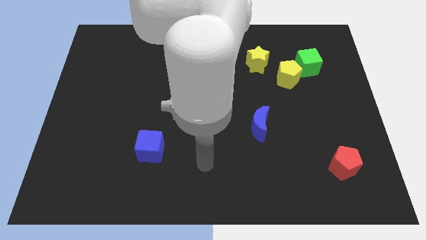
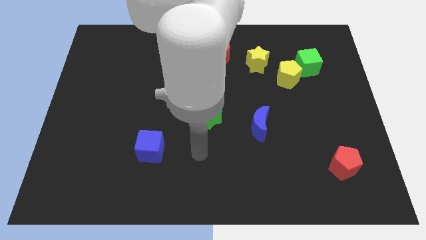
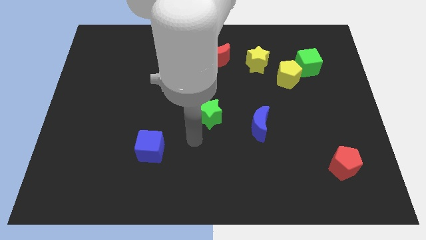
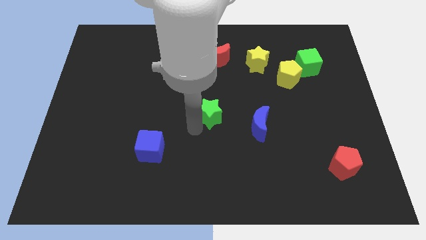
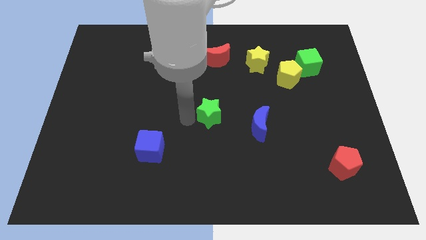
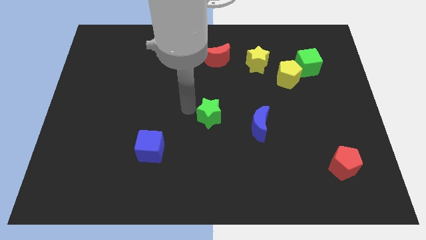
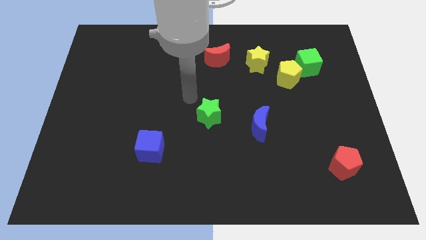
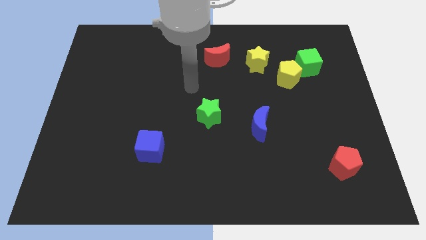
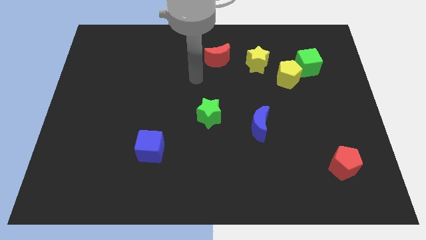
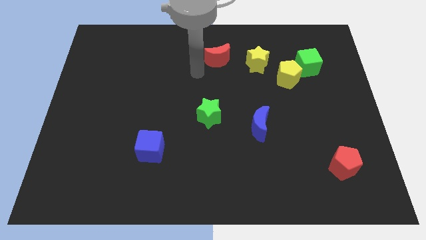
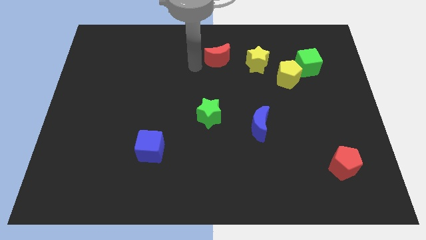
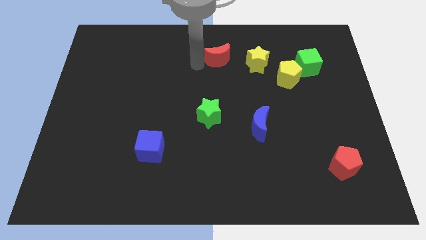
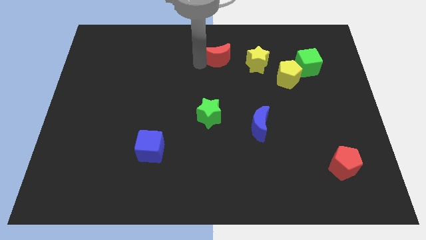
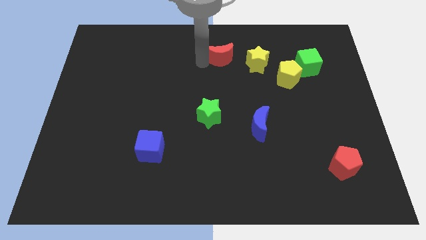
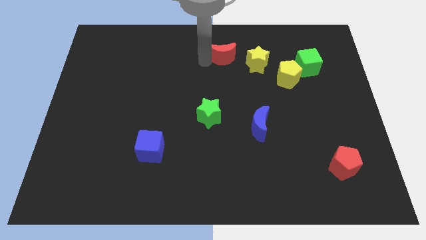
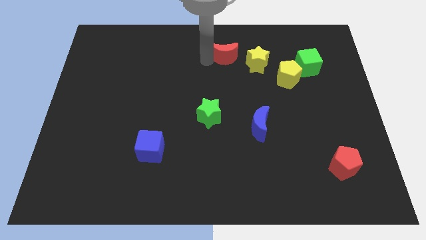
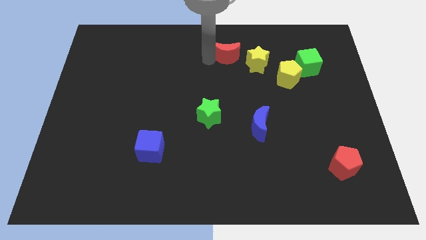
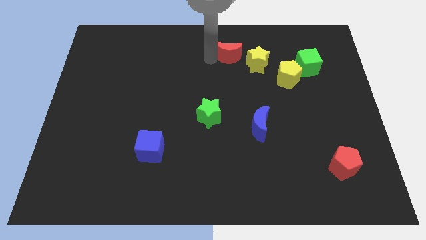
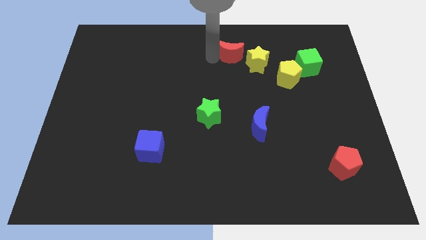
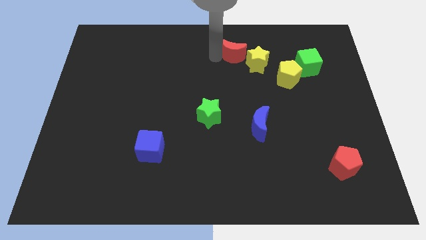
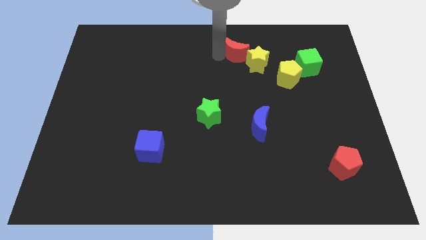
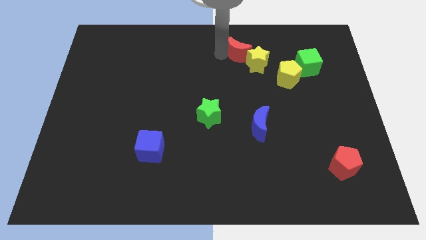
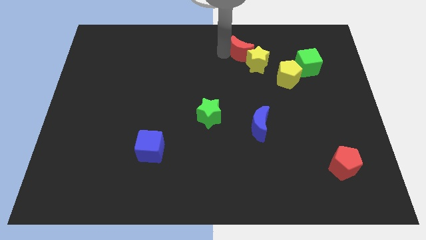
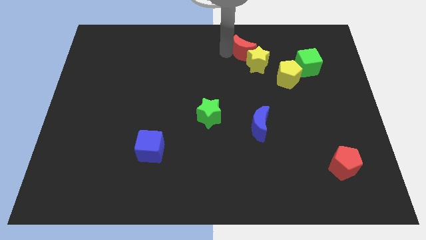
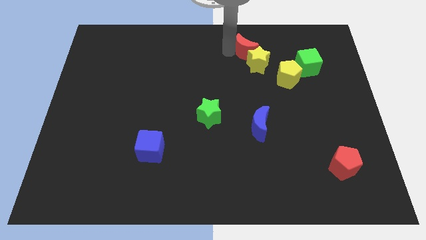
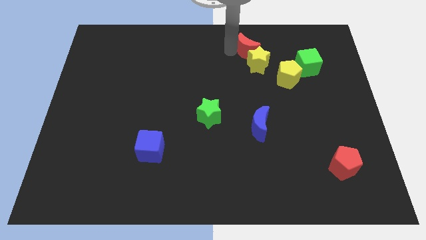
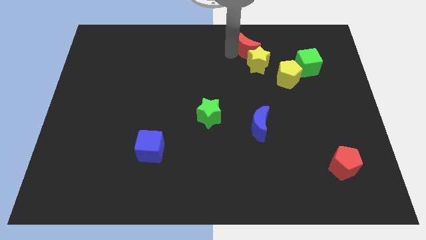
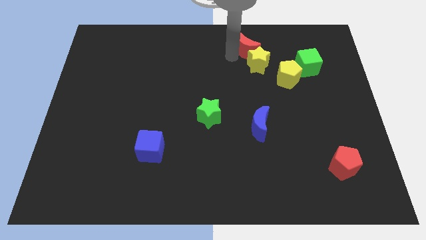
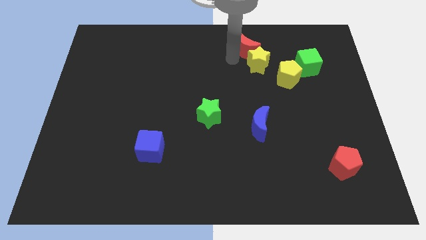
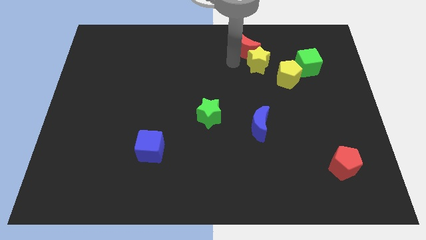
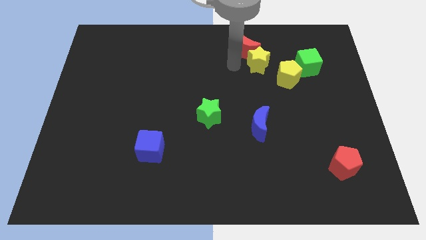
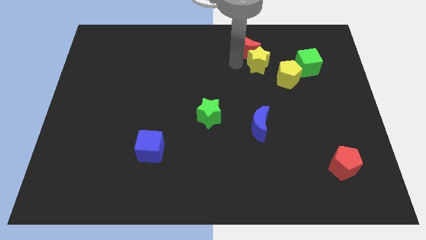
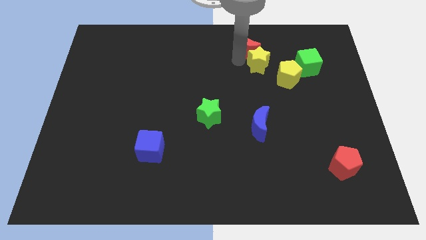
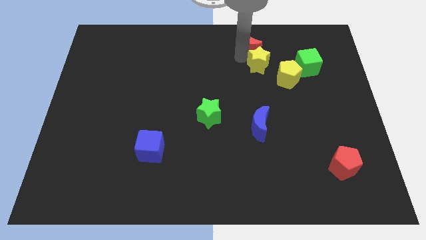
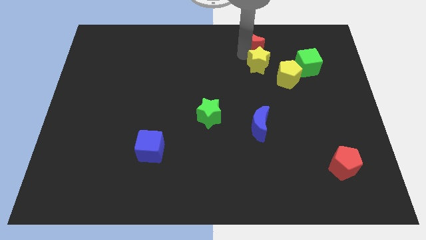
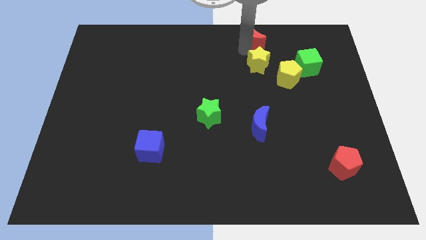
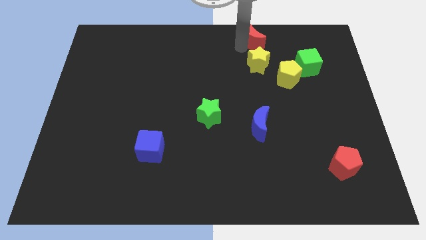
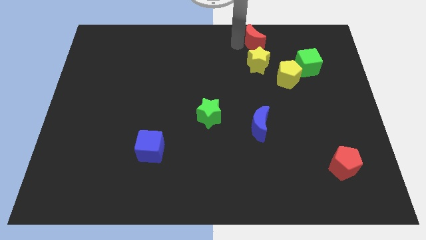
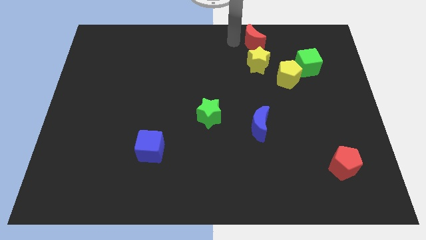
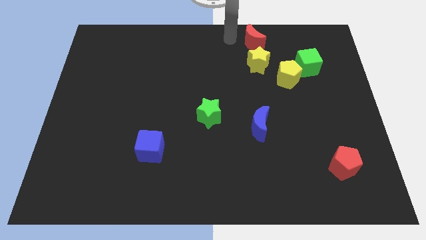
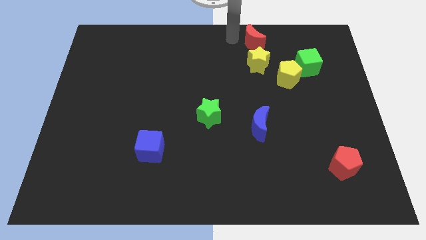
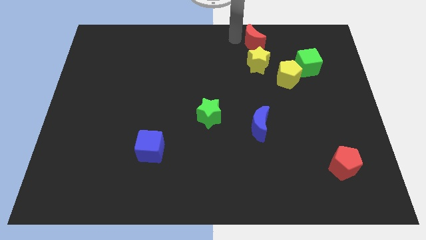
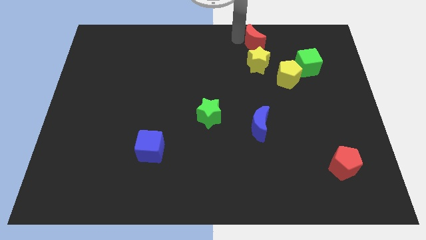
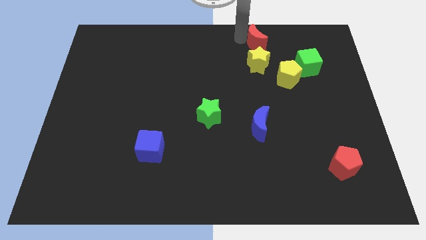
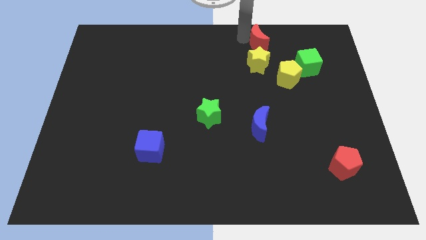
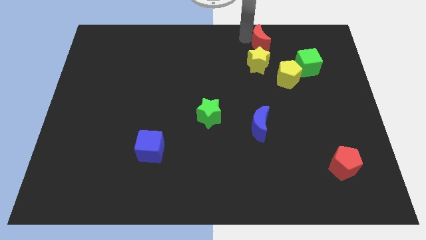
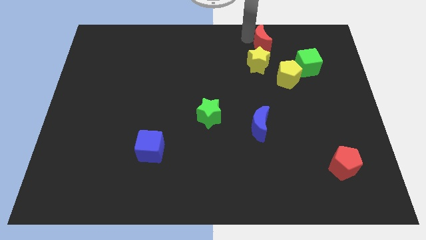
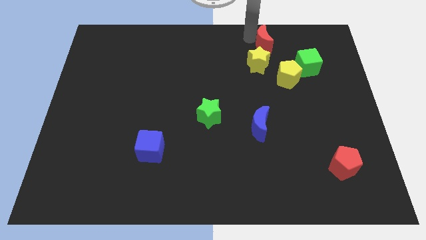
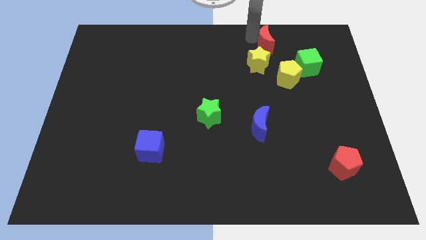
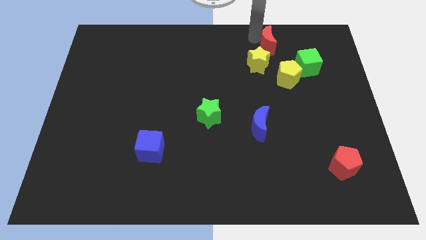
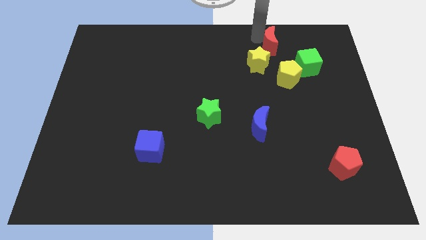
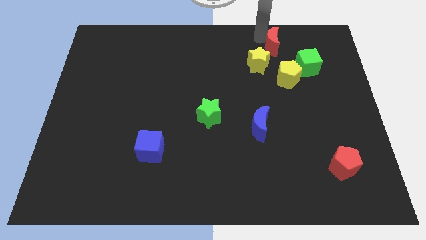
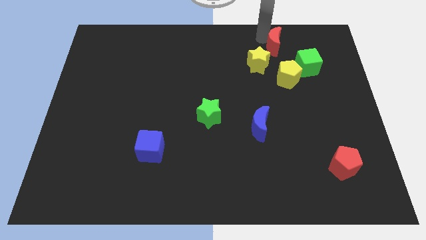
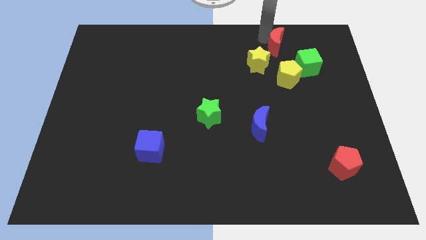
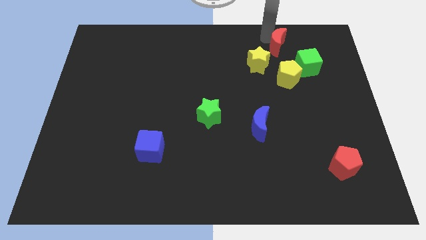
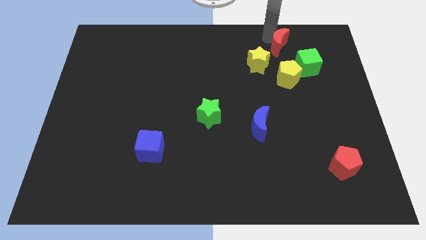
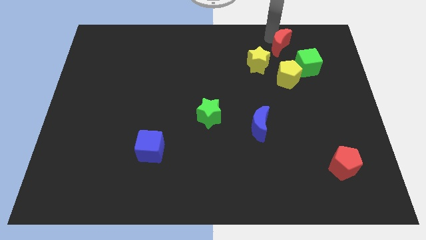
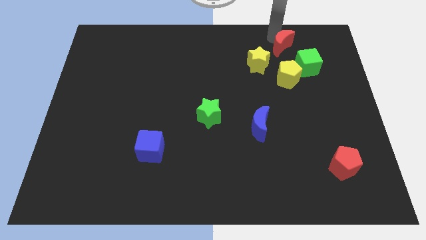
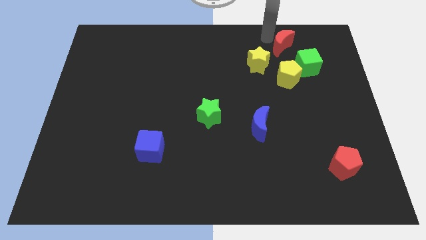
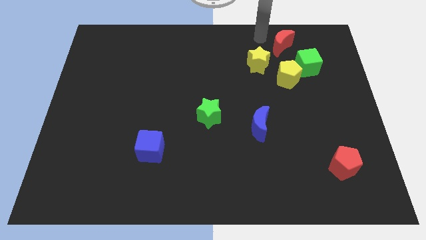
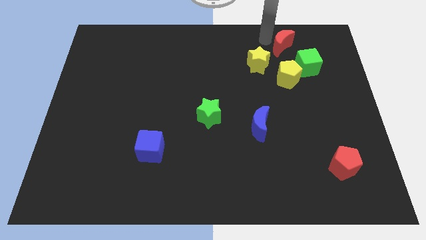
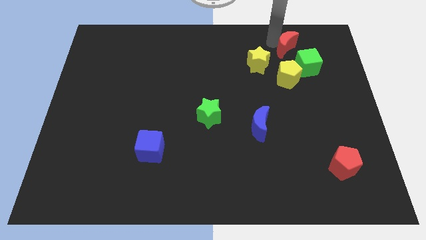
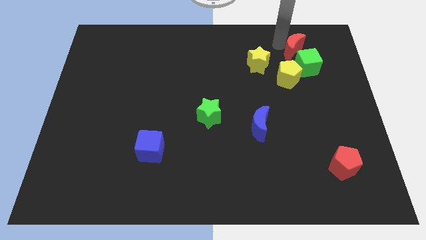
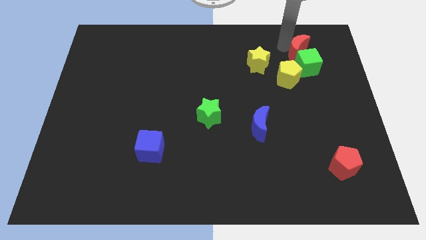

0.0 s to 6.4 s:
move the red moon to the top right of the yellow pentagon

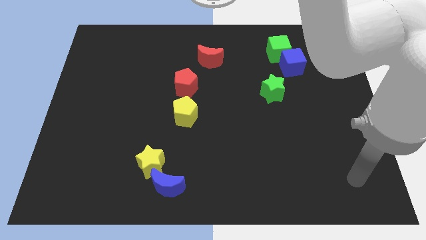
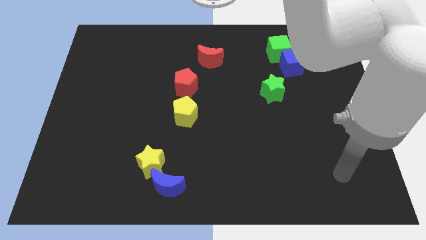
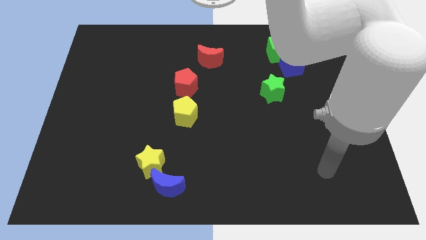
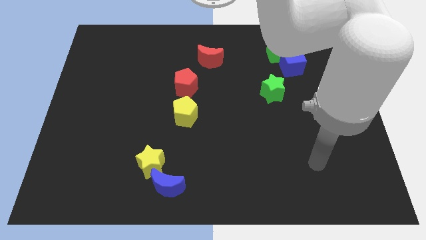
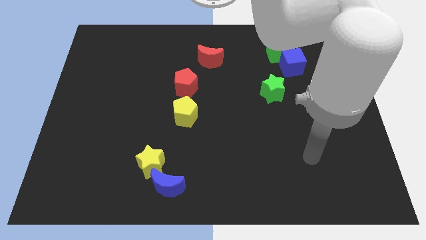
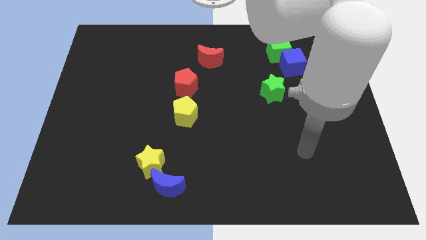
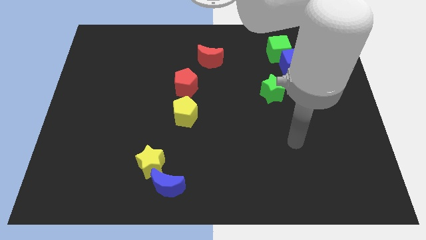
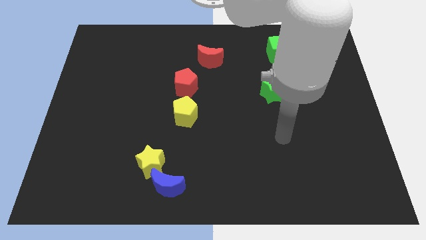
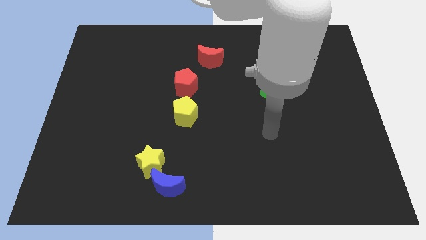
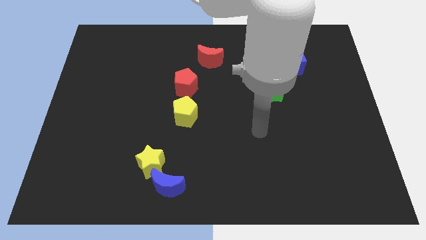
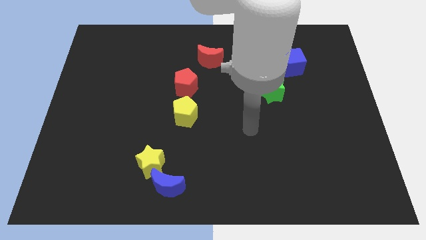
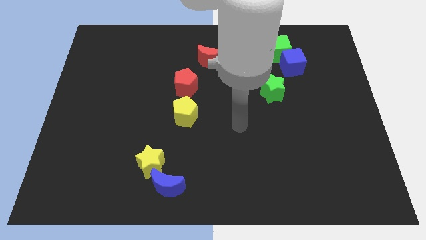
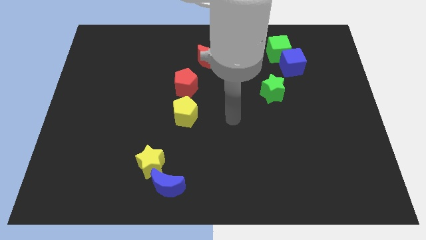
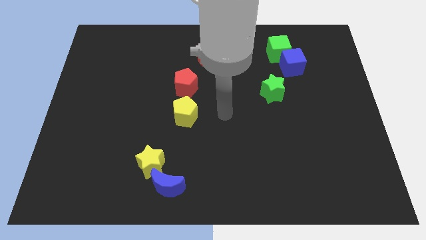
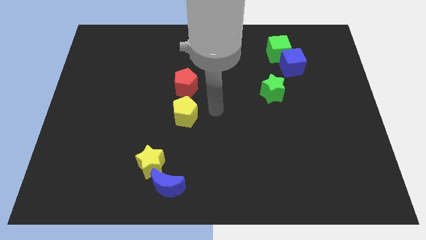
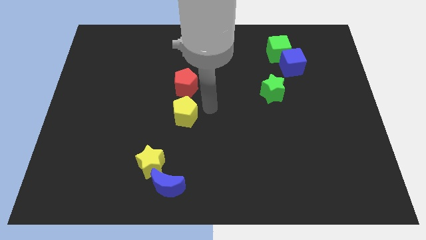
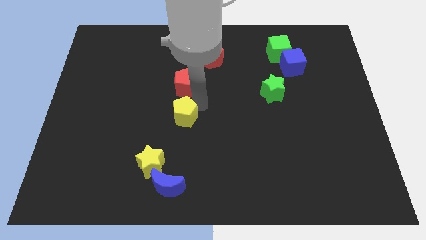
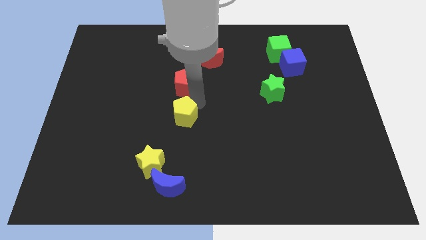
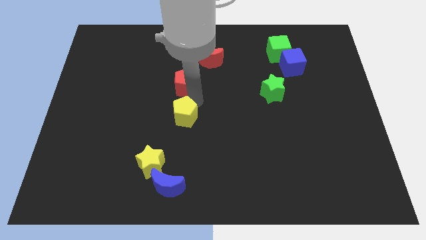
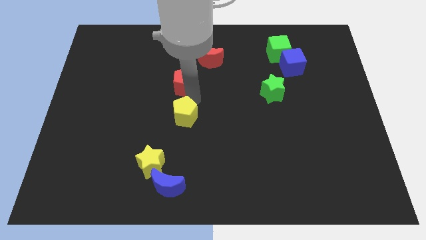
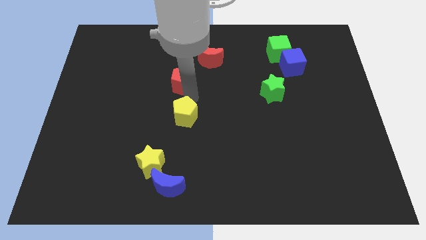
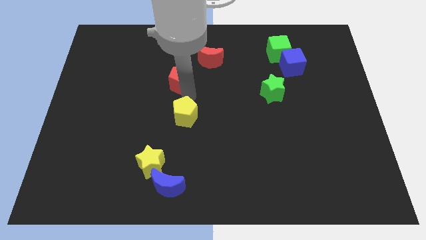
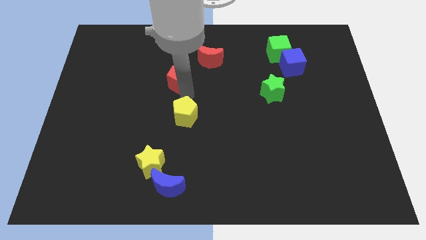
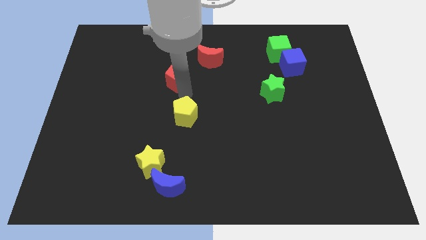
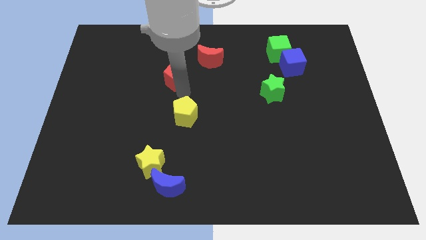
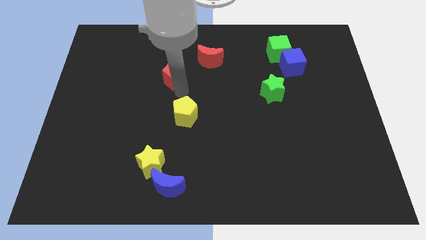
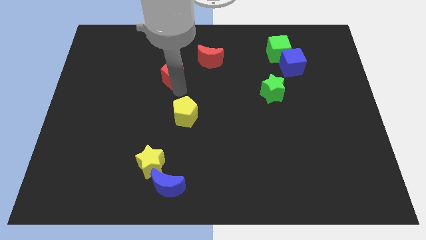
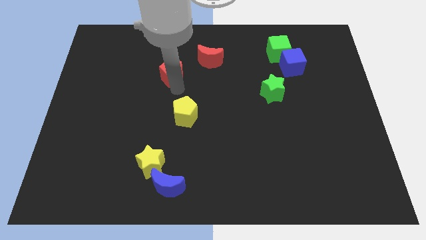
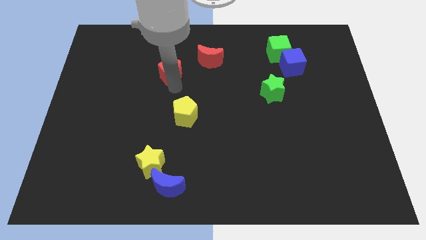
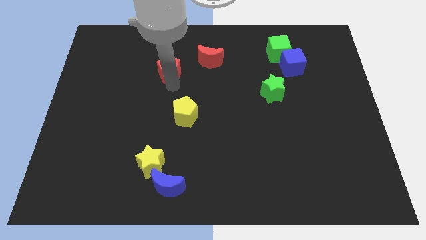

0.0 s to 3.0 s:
move the red pentagon left of the red moon
